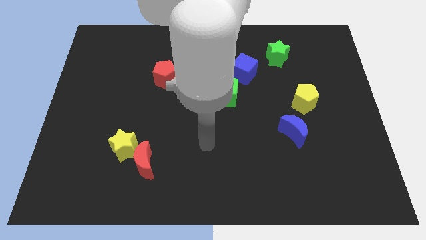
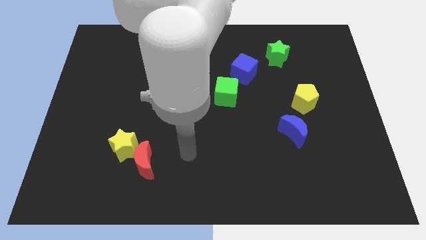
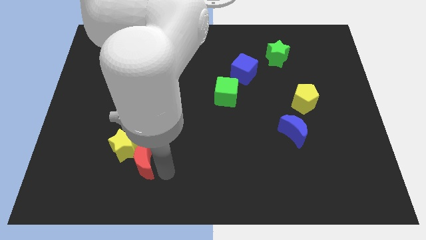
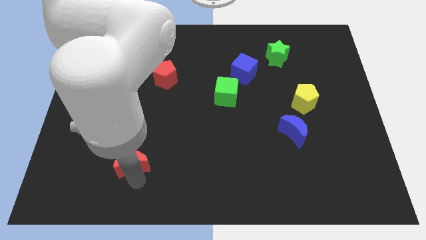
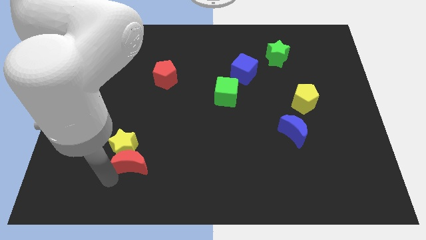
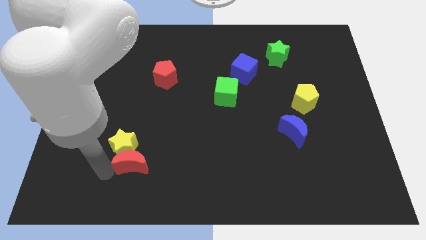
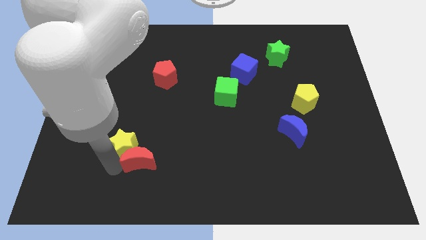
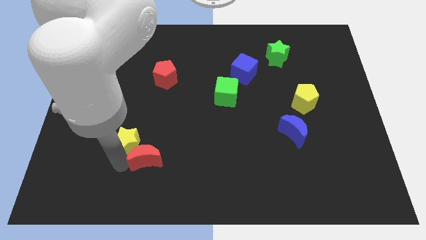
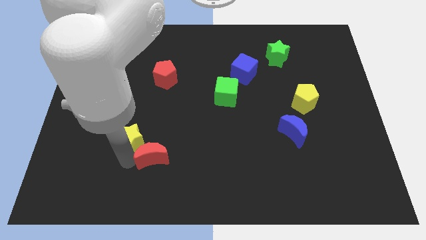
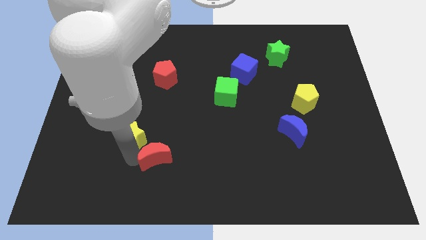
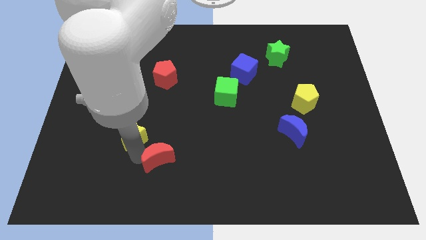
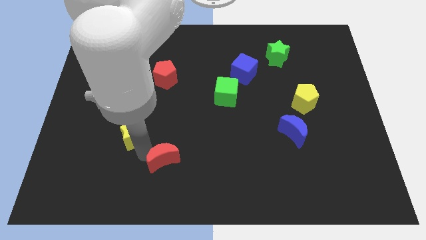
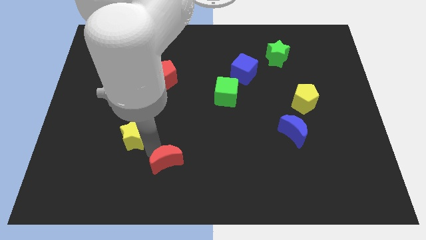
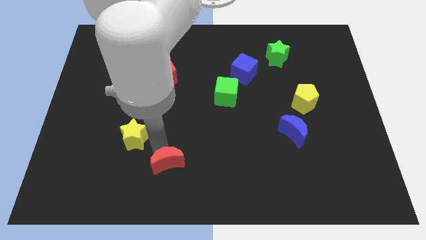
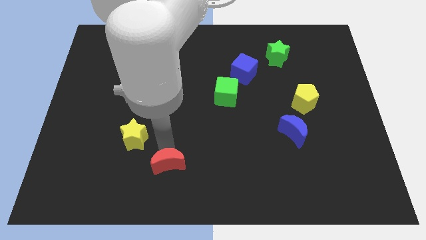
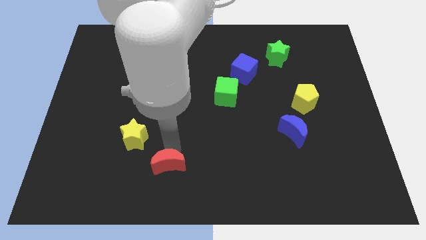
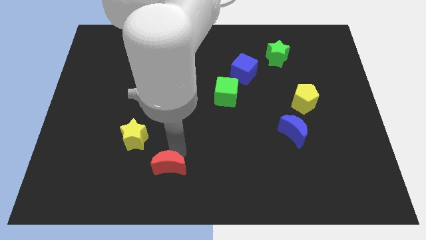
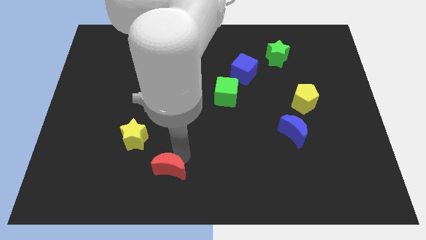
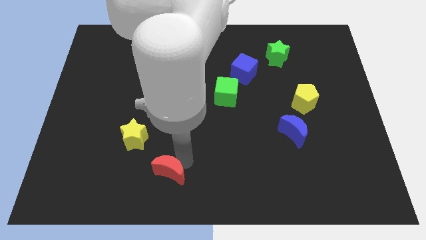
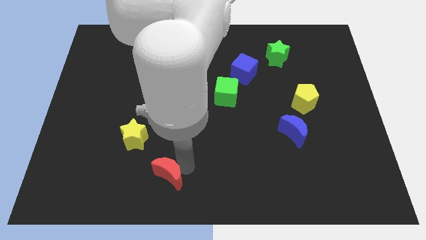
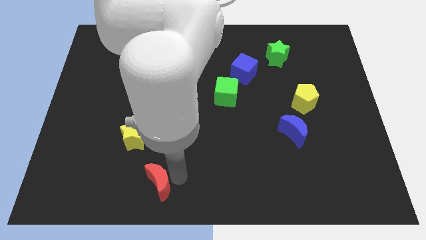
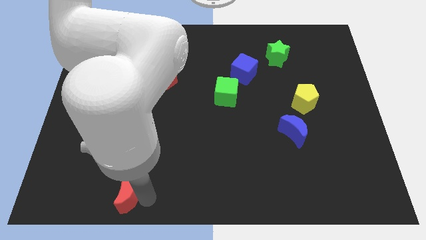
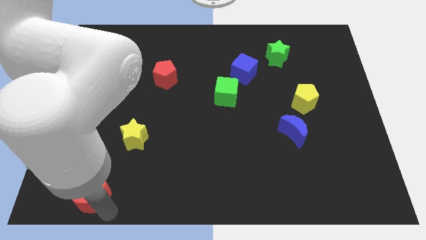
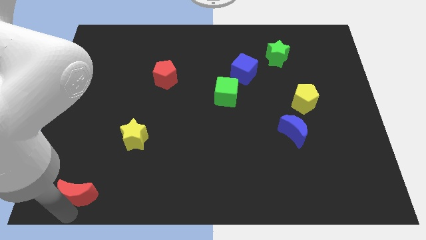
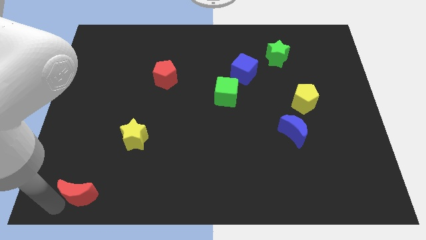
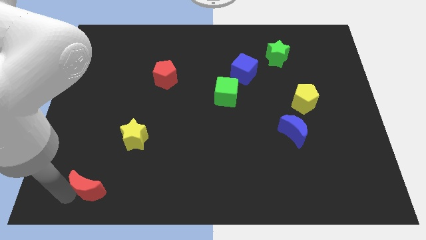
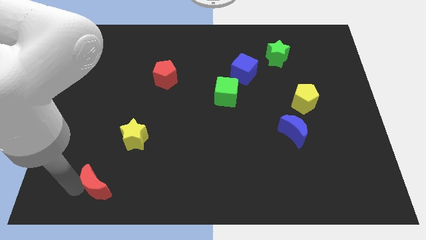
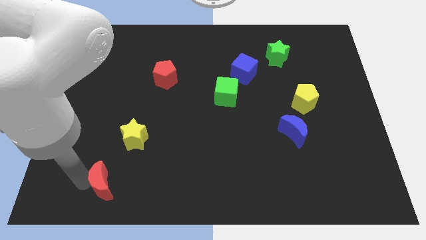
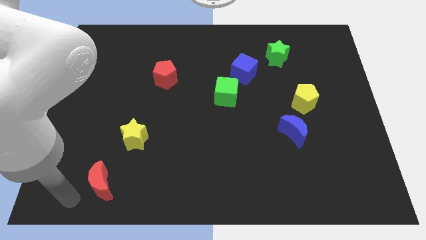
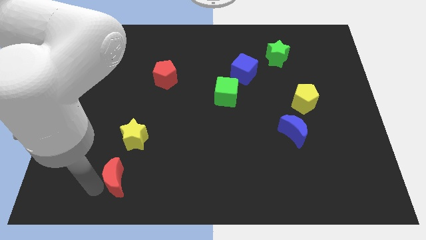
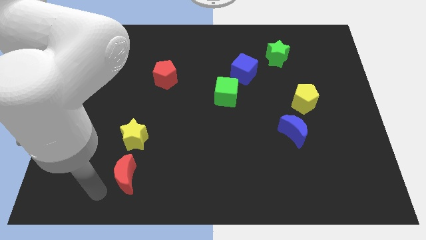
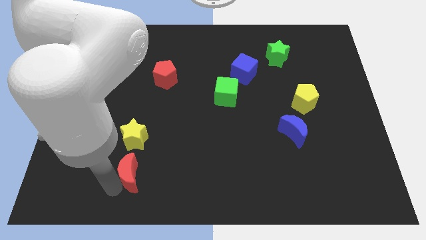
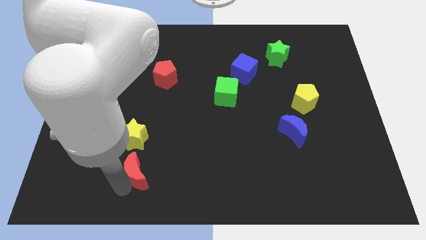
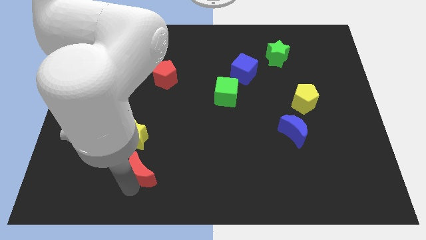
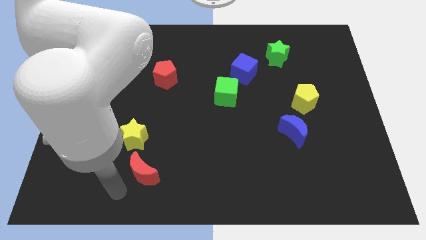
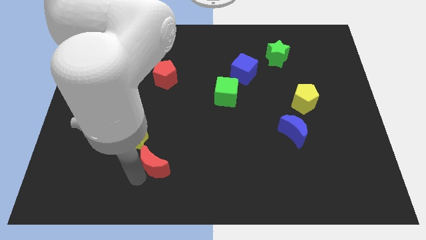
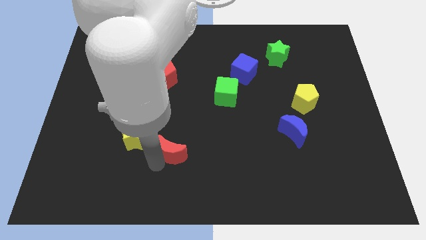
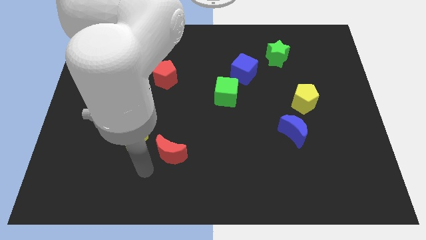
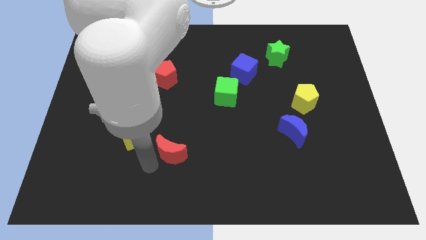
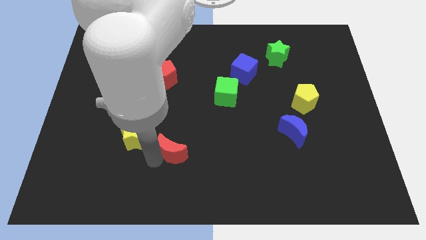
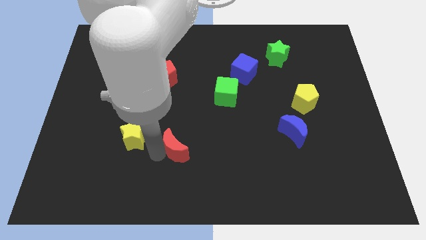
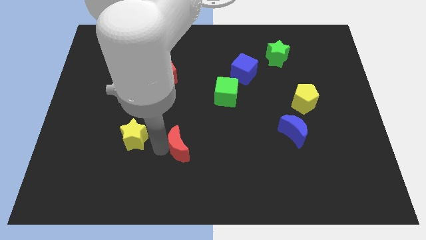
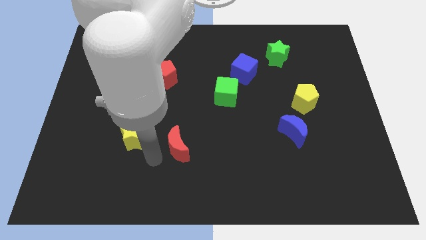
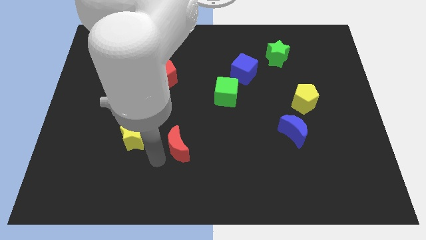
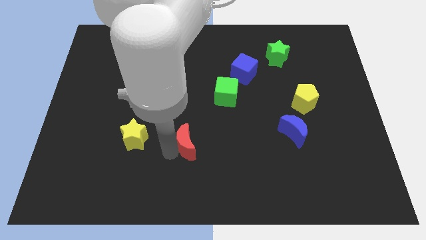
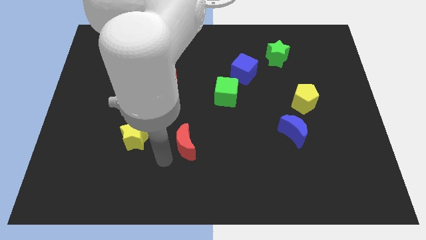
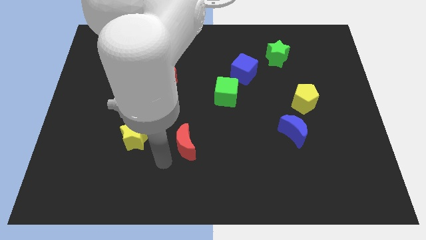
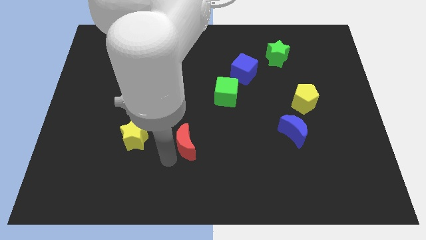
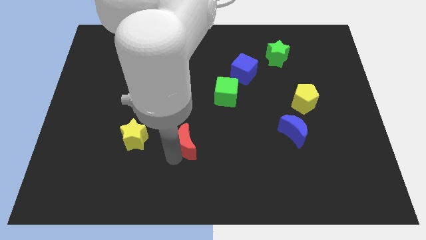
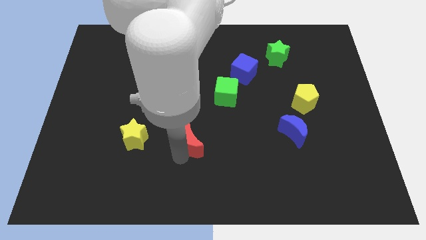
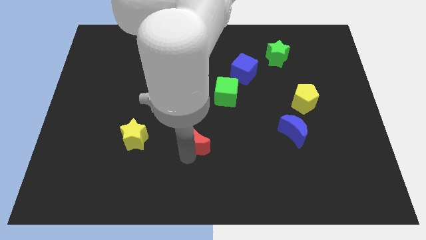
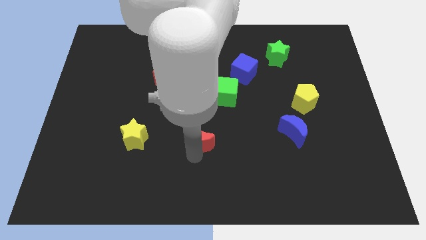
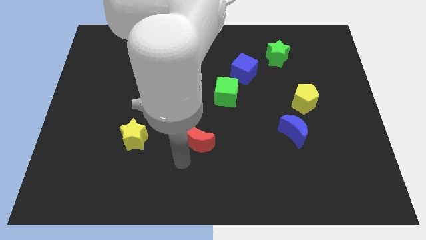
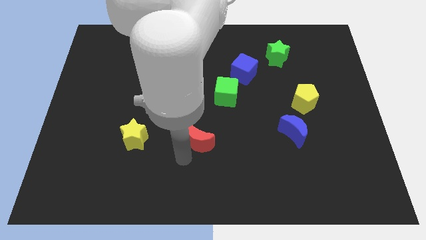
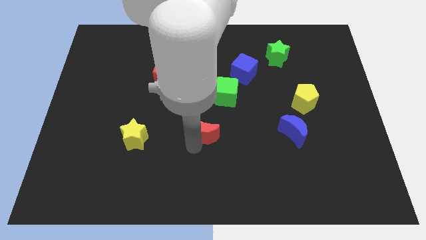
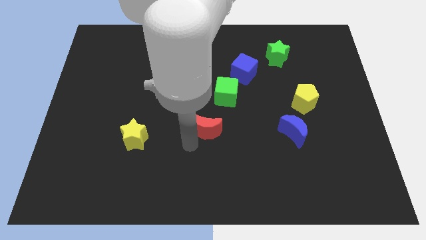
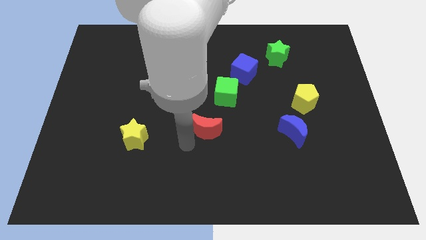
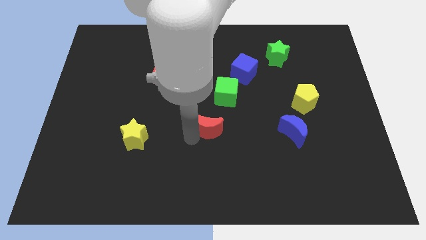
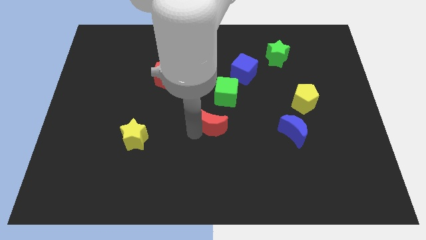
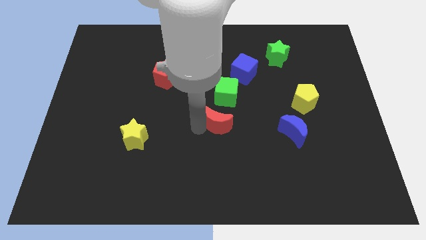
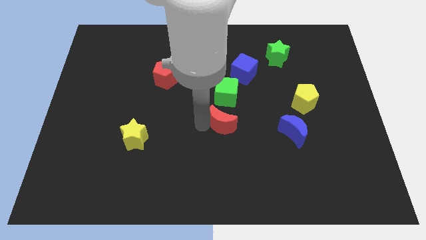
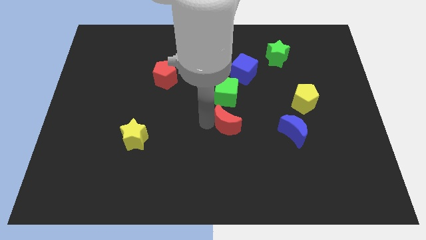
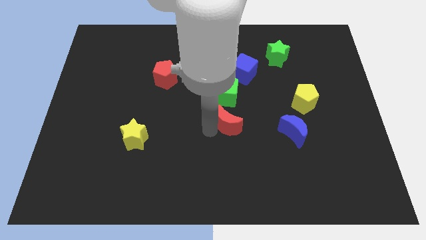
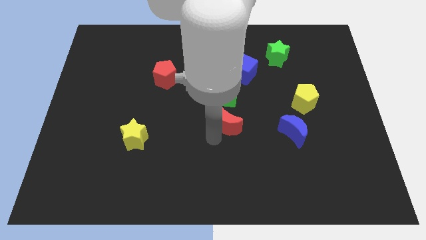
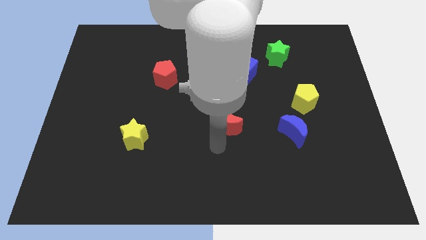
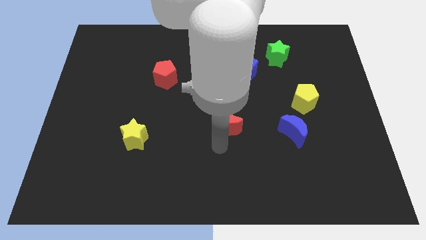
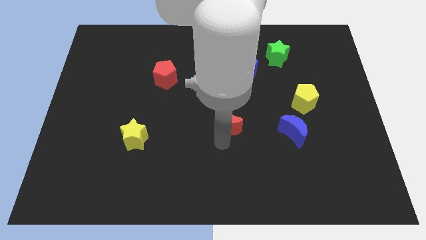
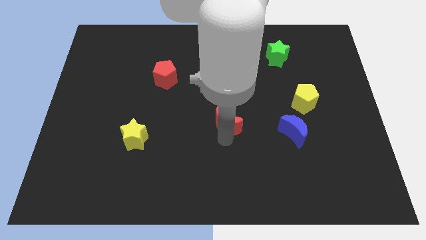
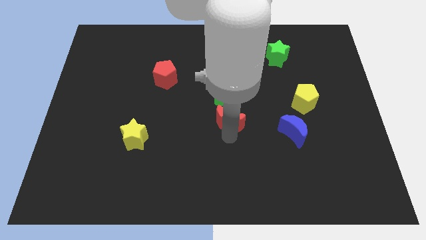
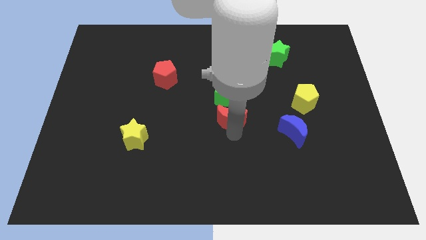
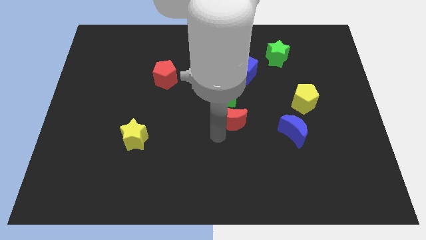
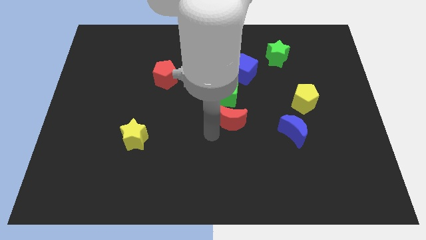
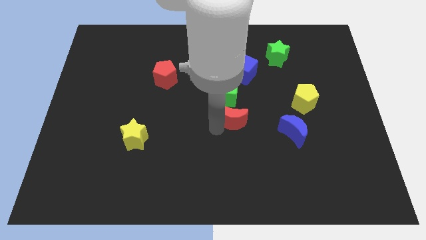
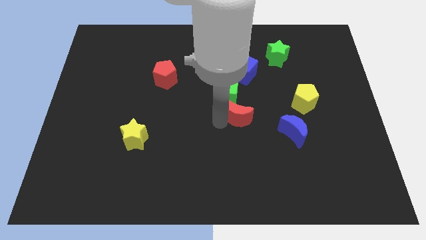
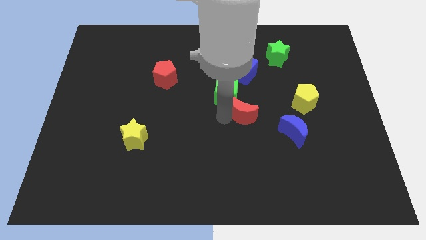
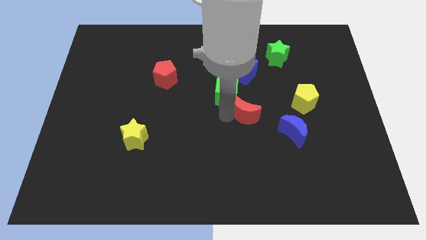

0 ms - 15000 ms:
push the red moon left of the yellow pentagon
